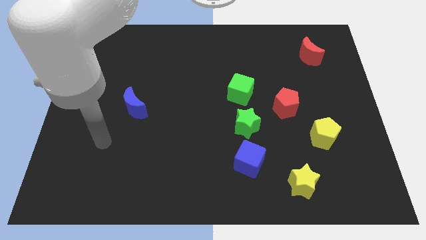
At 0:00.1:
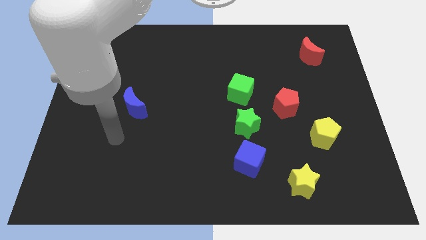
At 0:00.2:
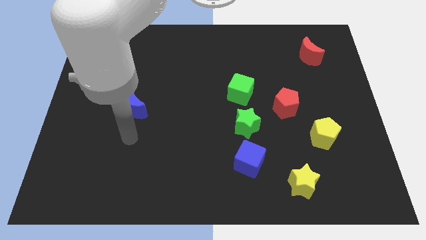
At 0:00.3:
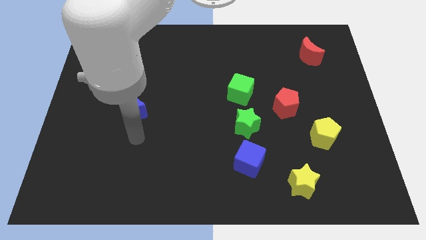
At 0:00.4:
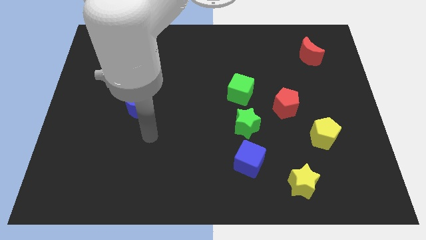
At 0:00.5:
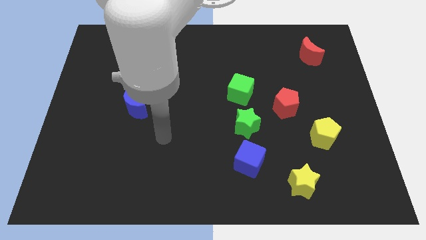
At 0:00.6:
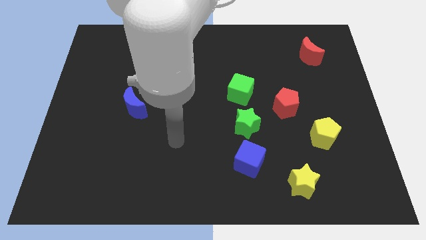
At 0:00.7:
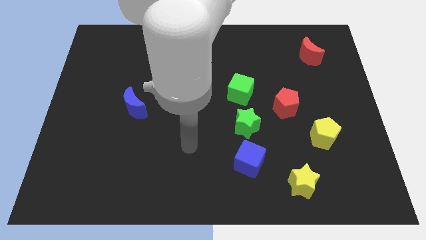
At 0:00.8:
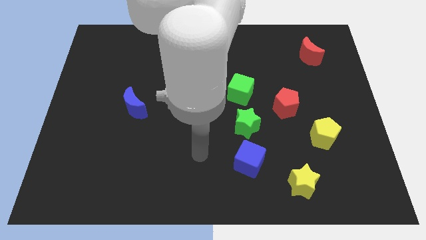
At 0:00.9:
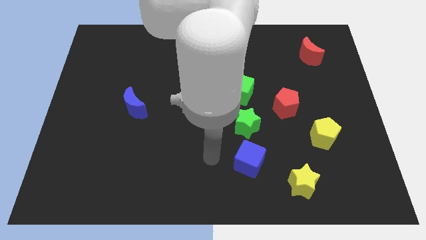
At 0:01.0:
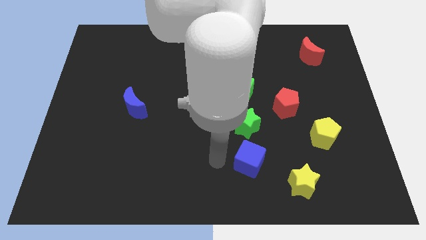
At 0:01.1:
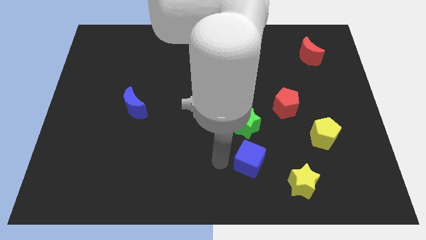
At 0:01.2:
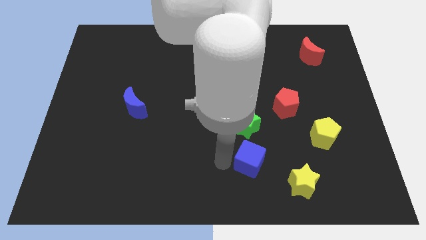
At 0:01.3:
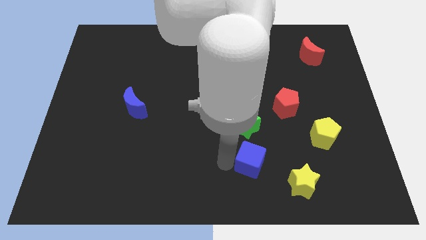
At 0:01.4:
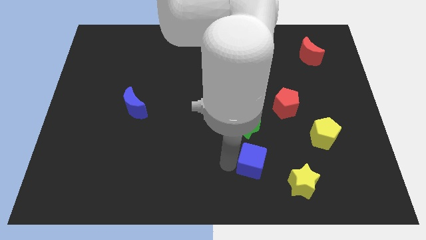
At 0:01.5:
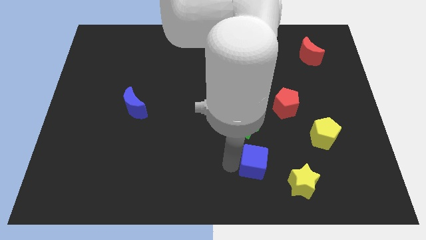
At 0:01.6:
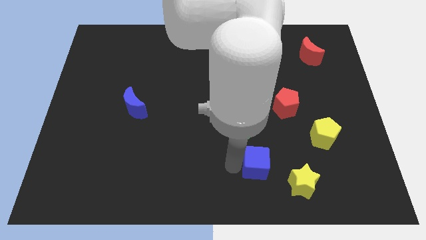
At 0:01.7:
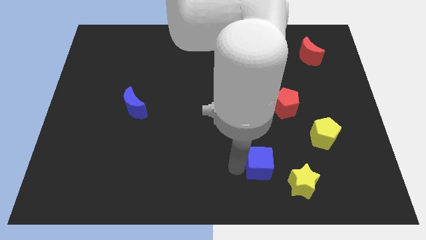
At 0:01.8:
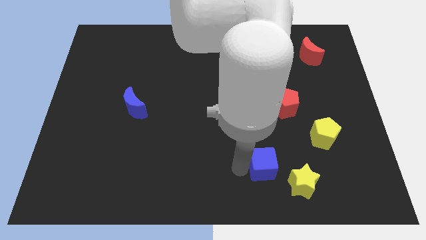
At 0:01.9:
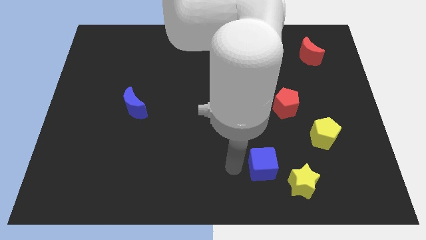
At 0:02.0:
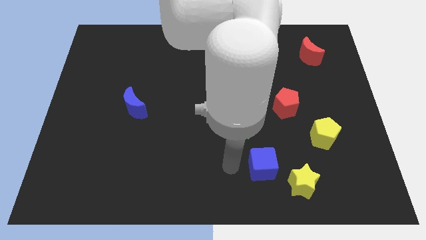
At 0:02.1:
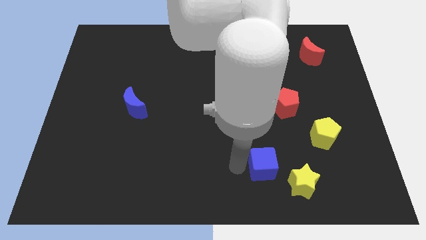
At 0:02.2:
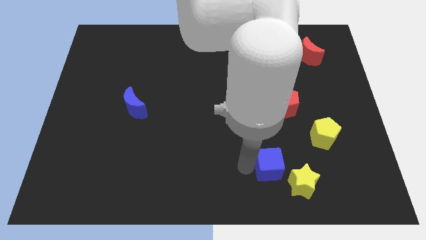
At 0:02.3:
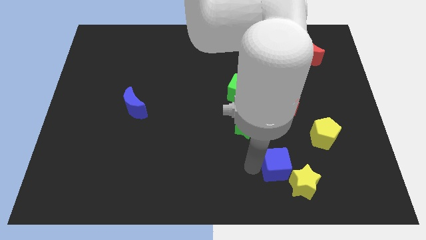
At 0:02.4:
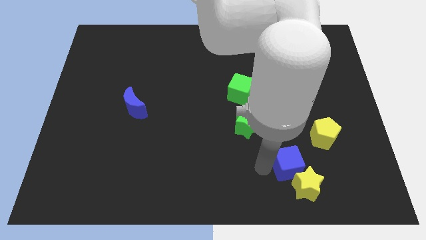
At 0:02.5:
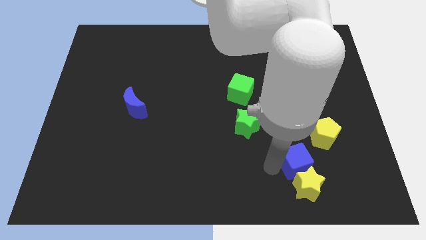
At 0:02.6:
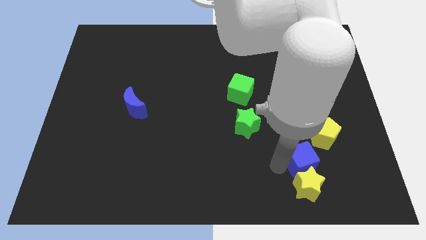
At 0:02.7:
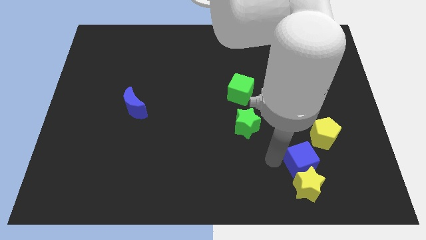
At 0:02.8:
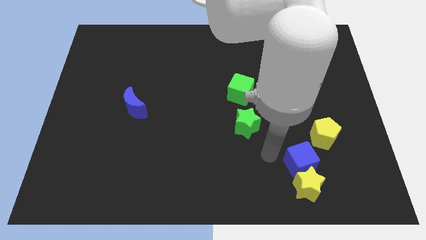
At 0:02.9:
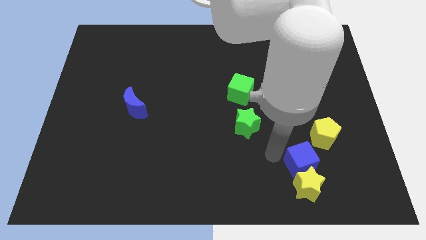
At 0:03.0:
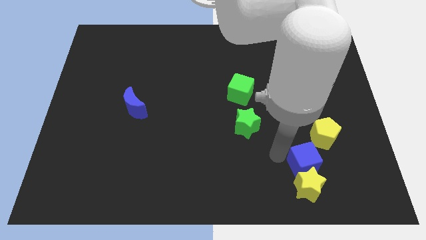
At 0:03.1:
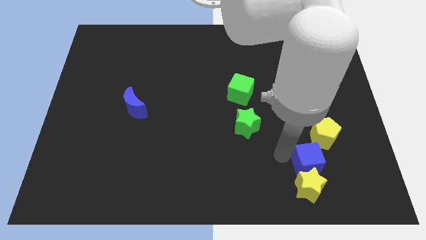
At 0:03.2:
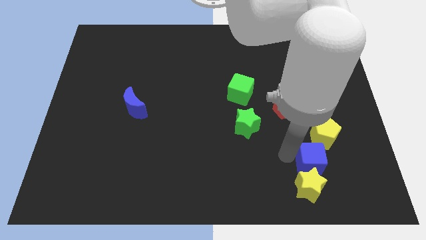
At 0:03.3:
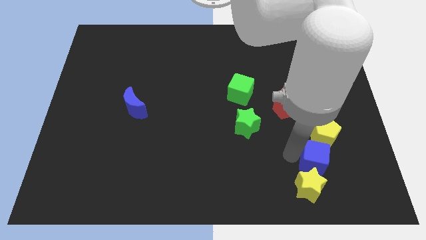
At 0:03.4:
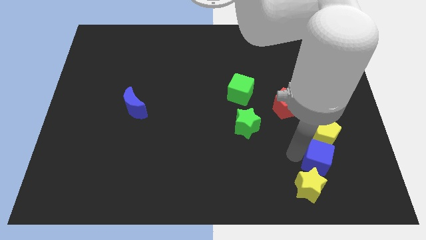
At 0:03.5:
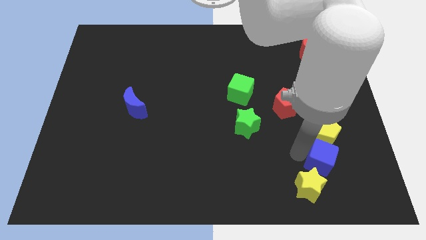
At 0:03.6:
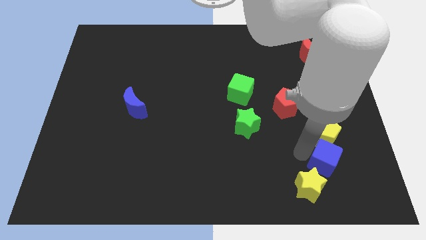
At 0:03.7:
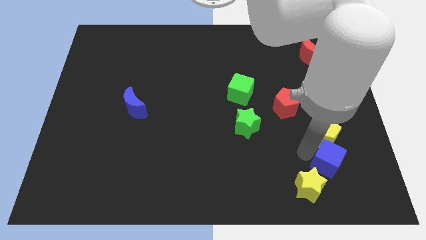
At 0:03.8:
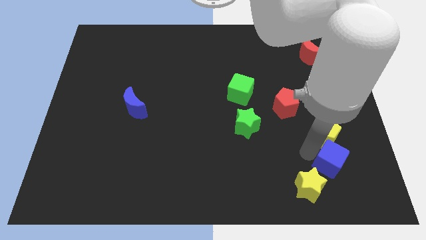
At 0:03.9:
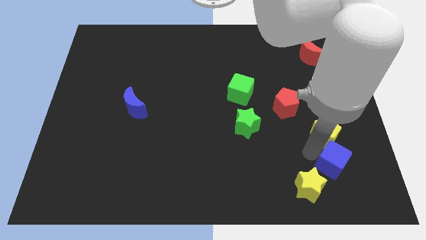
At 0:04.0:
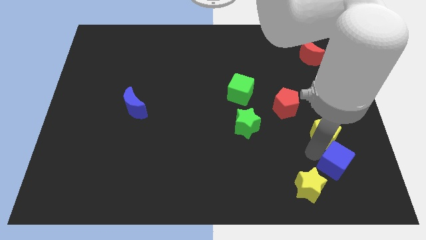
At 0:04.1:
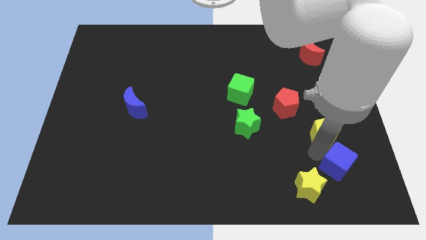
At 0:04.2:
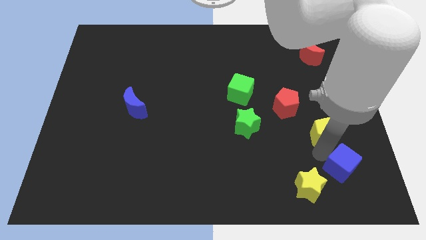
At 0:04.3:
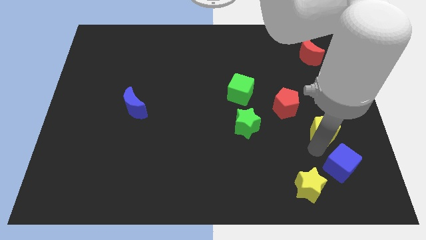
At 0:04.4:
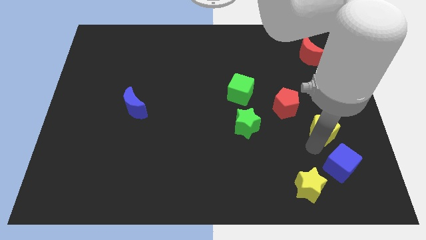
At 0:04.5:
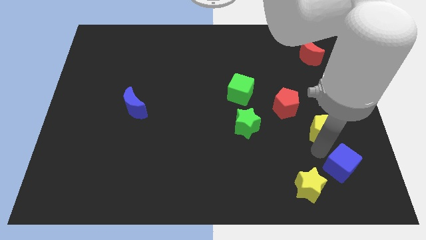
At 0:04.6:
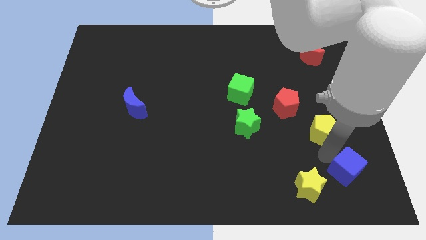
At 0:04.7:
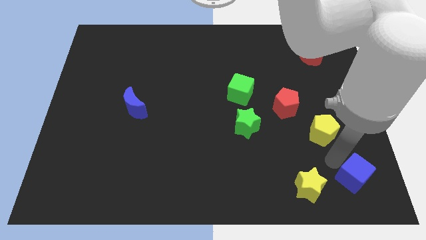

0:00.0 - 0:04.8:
slide the blue cube to the lower right corner

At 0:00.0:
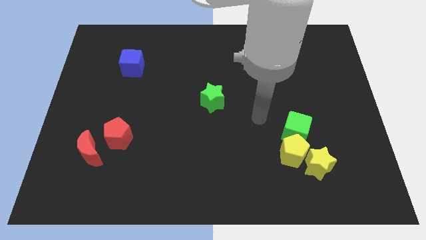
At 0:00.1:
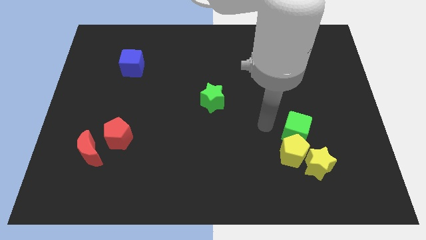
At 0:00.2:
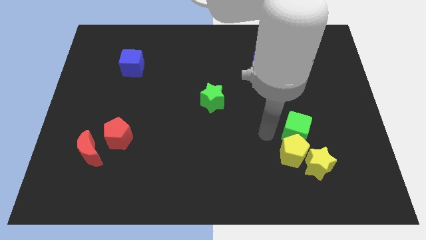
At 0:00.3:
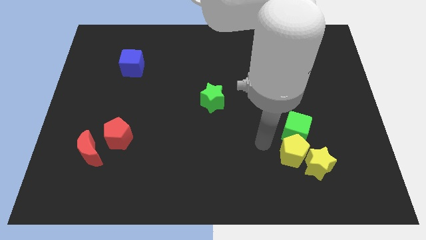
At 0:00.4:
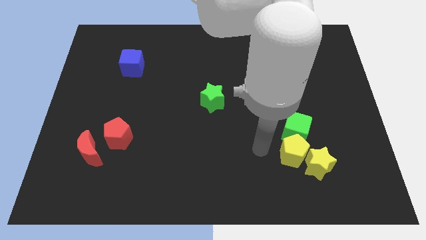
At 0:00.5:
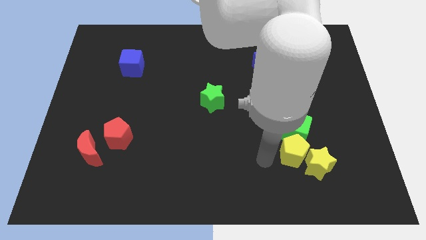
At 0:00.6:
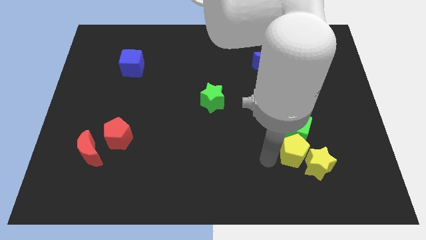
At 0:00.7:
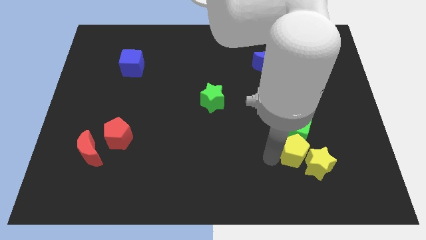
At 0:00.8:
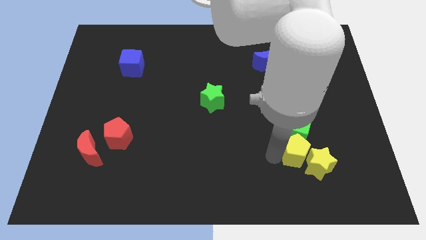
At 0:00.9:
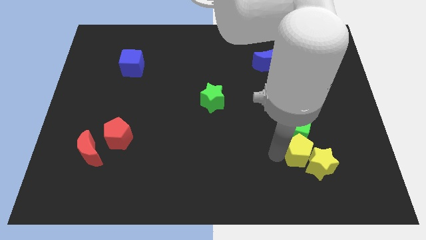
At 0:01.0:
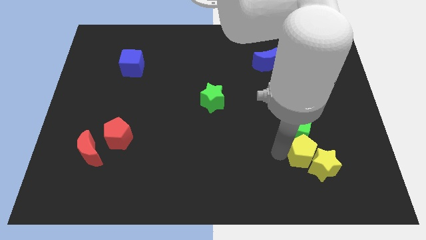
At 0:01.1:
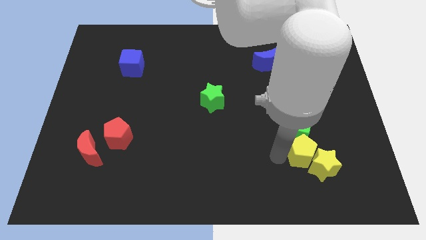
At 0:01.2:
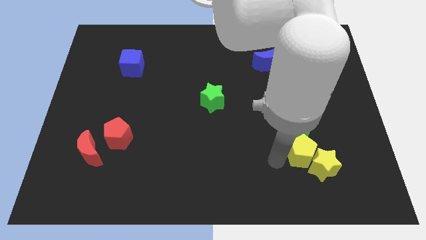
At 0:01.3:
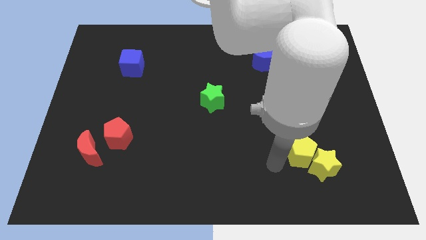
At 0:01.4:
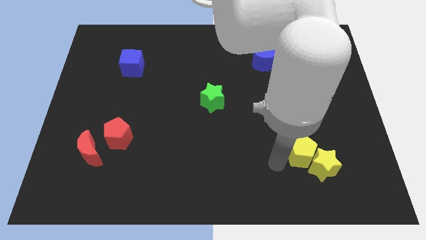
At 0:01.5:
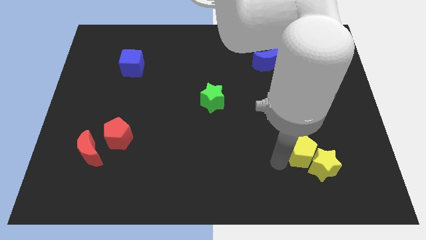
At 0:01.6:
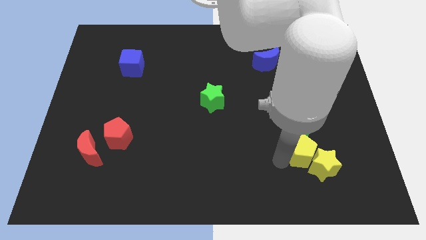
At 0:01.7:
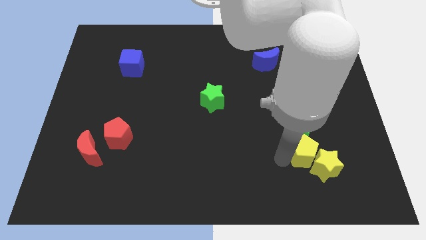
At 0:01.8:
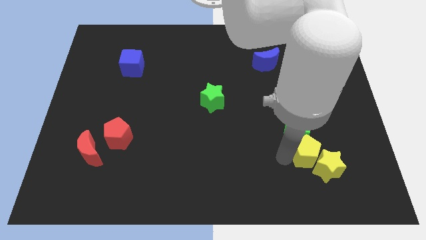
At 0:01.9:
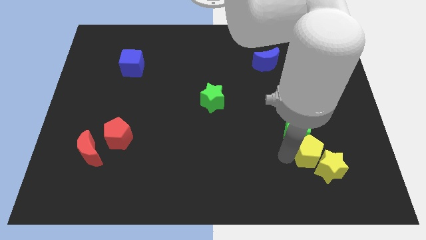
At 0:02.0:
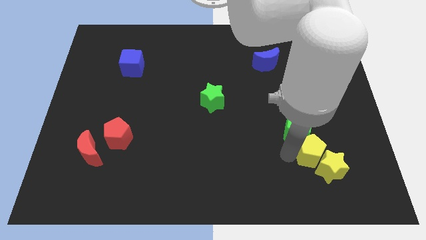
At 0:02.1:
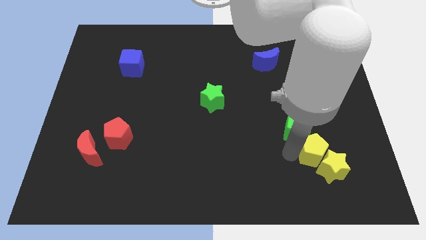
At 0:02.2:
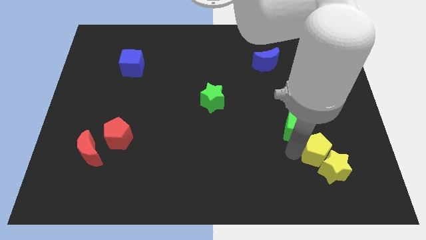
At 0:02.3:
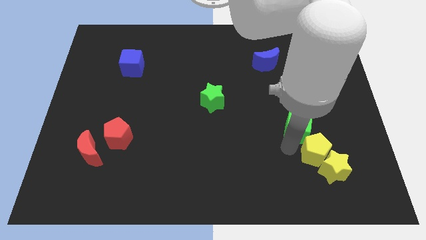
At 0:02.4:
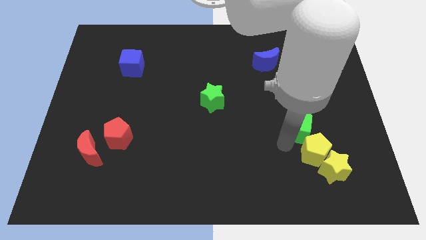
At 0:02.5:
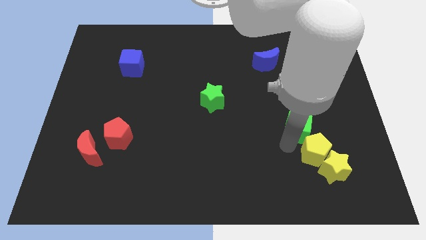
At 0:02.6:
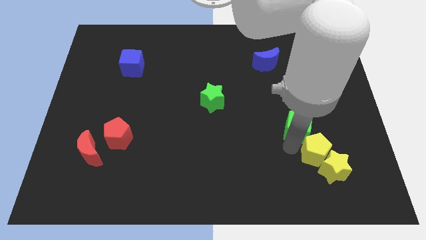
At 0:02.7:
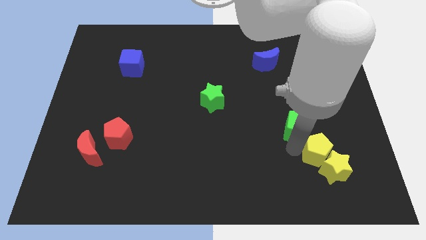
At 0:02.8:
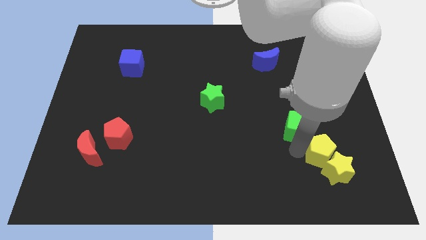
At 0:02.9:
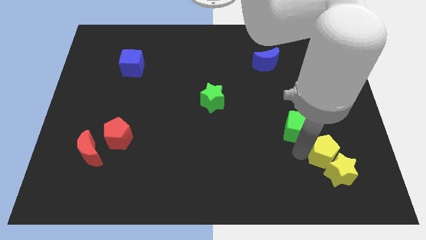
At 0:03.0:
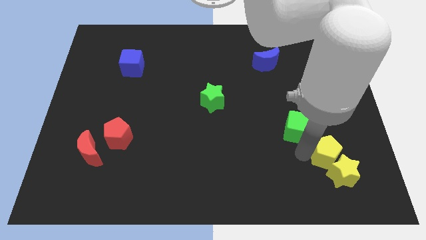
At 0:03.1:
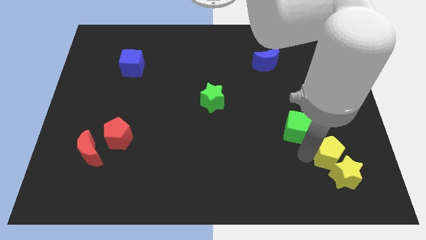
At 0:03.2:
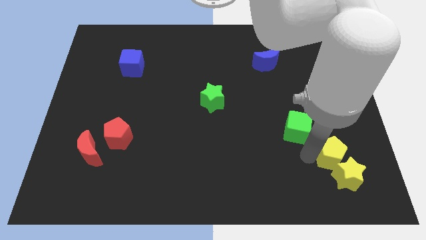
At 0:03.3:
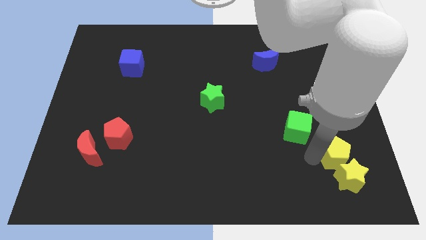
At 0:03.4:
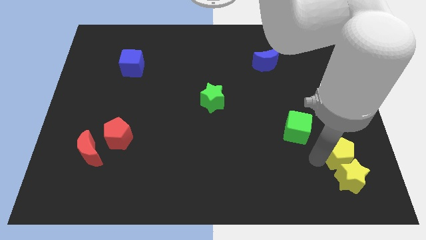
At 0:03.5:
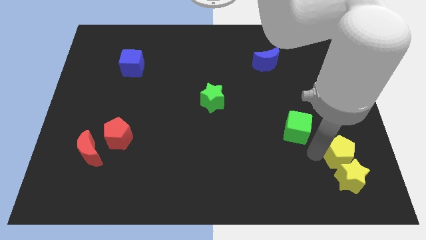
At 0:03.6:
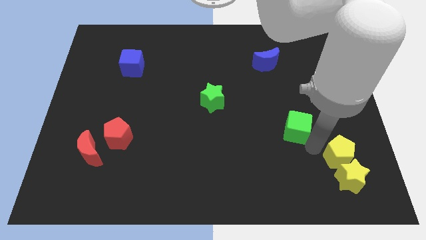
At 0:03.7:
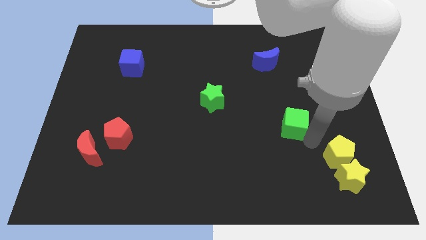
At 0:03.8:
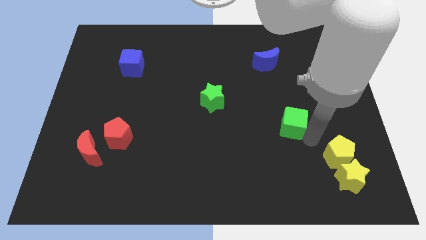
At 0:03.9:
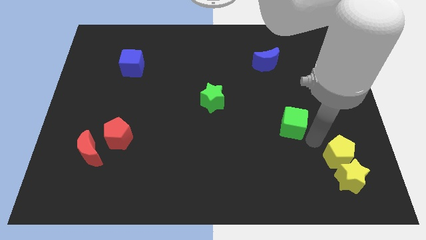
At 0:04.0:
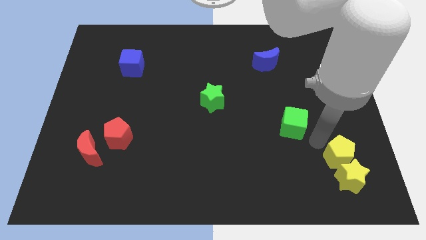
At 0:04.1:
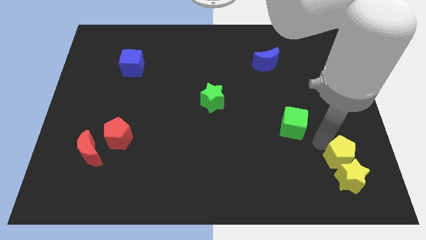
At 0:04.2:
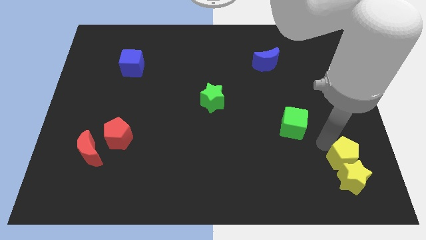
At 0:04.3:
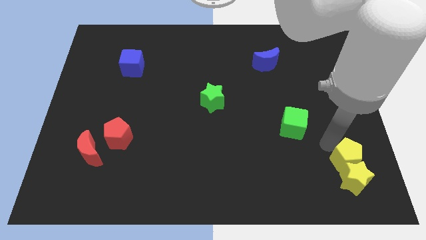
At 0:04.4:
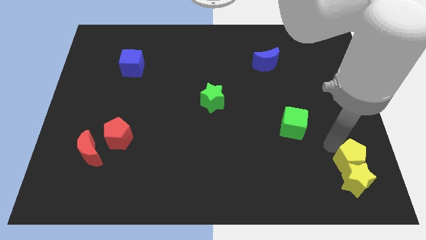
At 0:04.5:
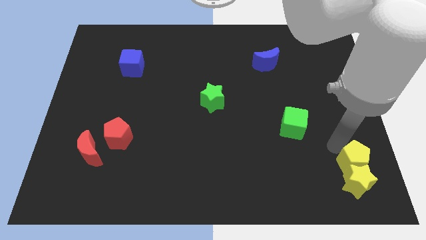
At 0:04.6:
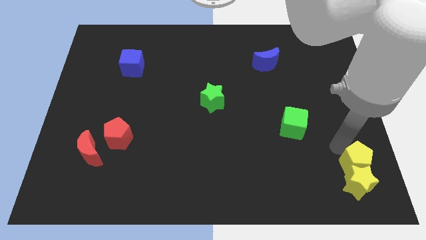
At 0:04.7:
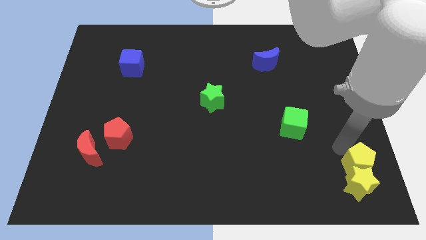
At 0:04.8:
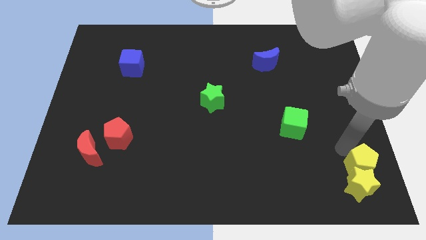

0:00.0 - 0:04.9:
push the yellow pentagon to the lower right corner
